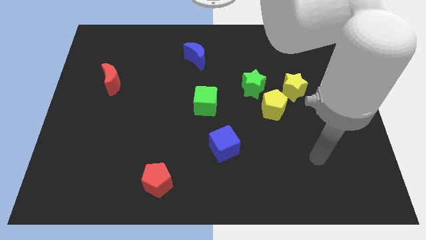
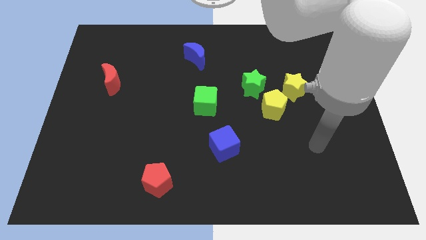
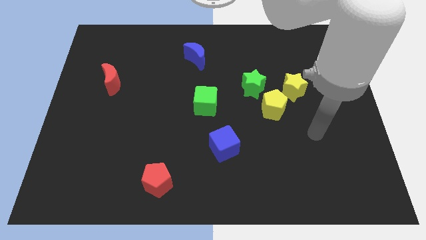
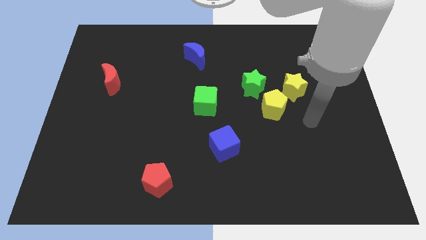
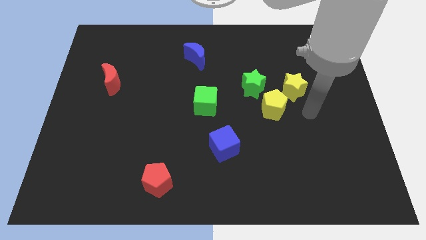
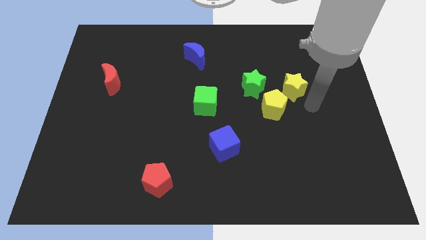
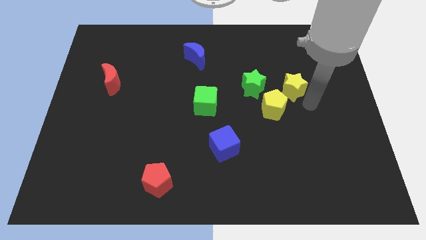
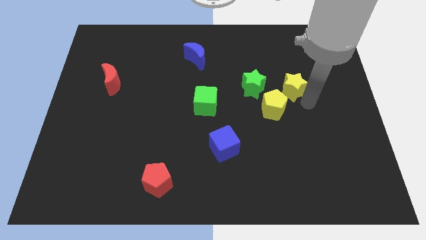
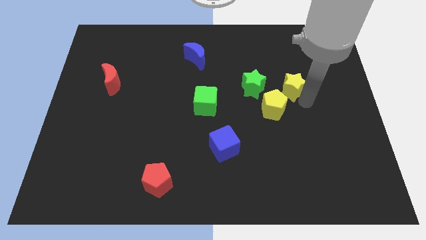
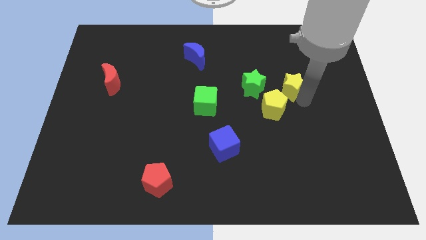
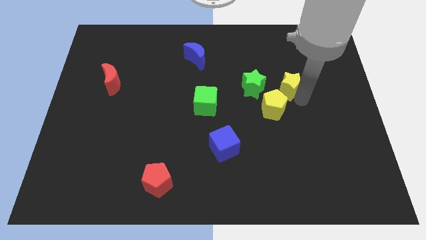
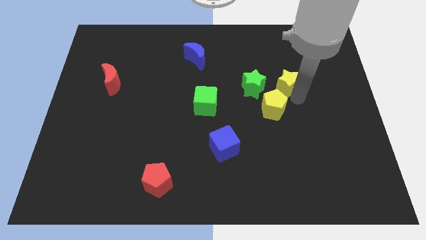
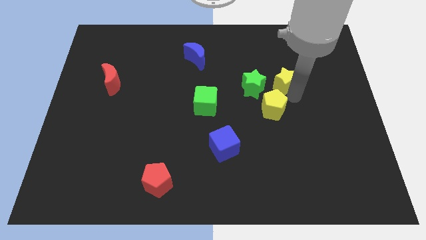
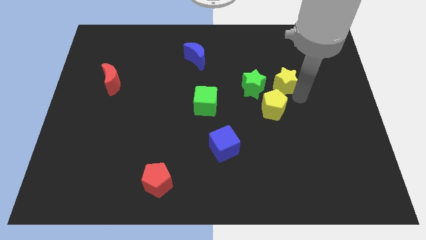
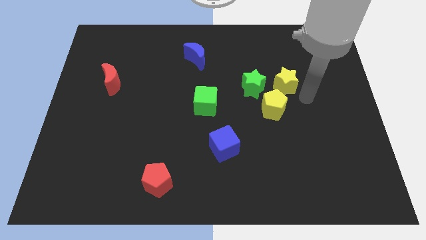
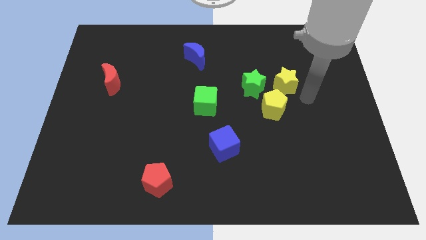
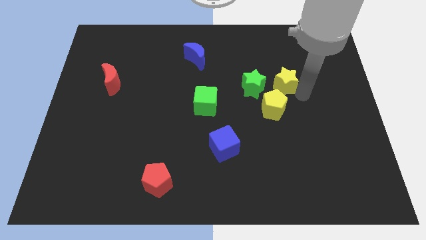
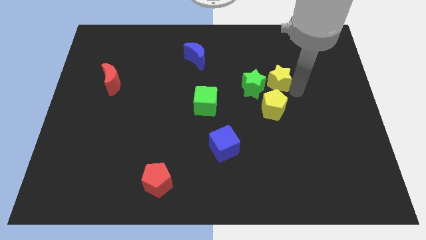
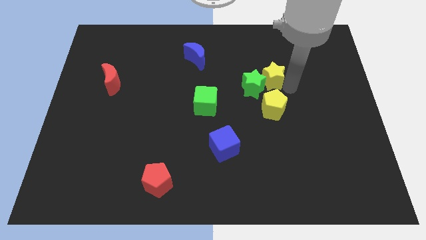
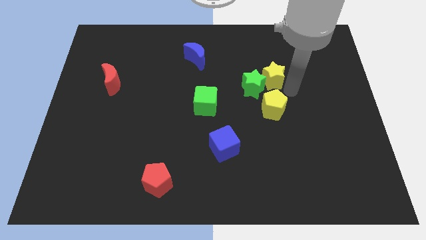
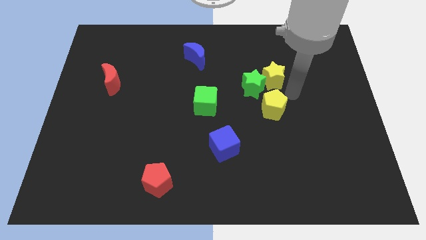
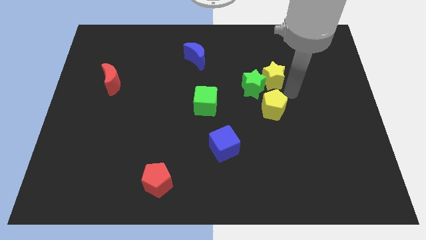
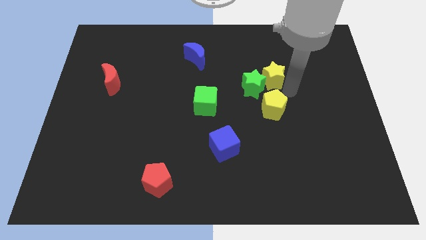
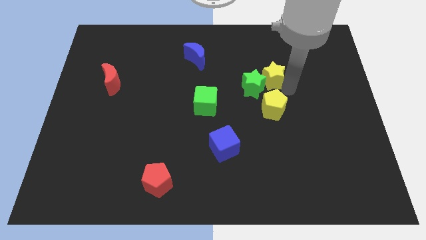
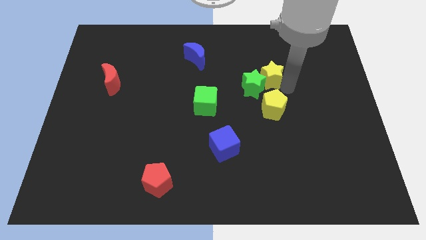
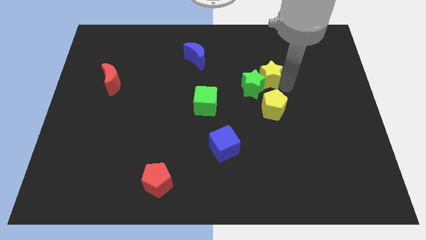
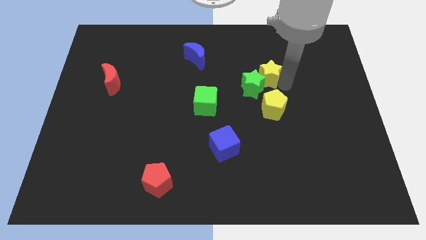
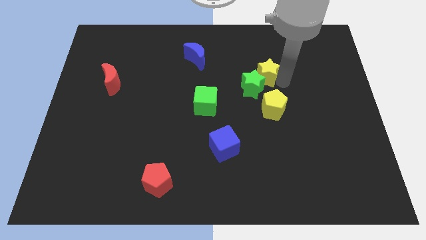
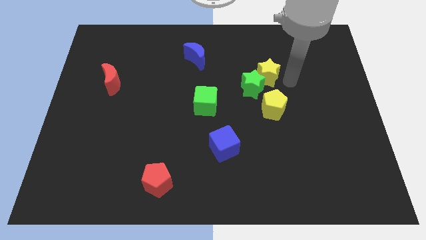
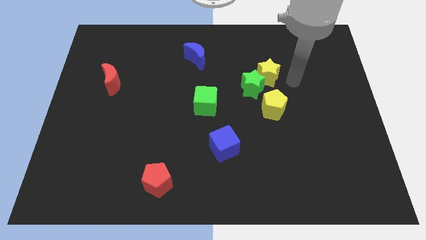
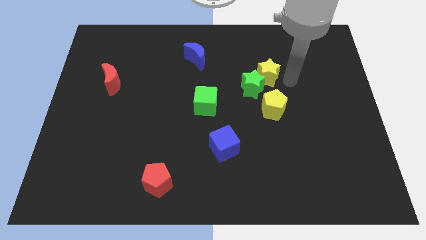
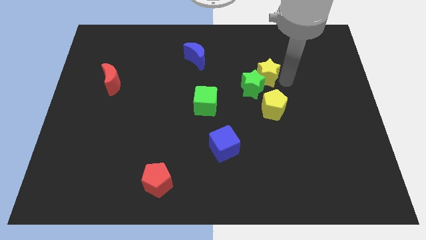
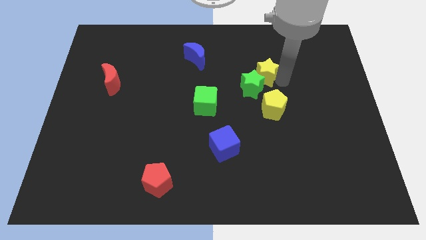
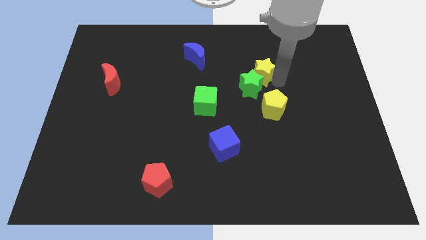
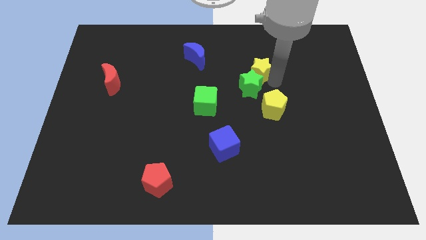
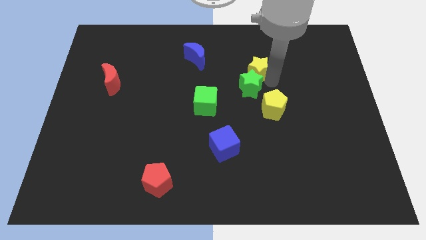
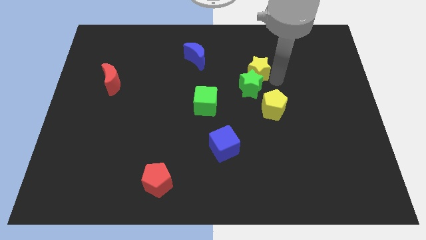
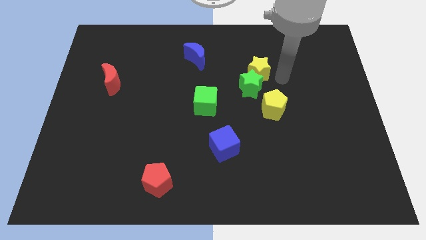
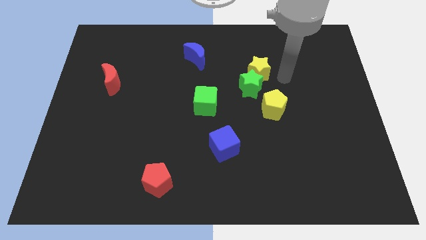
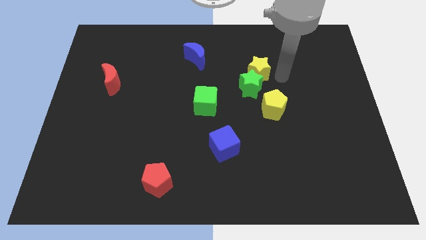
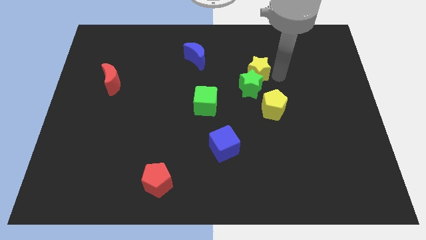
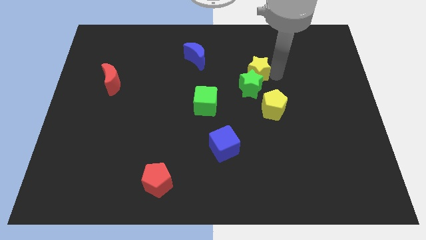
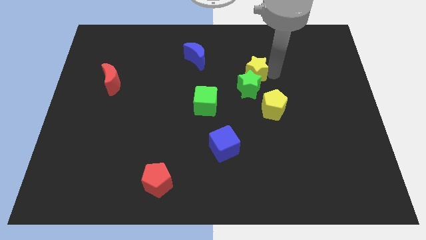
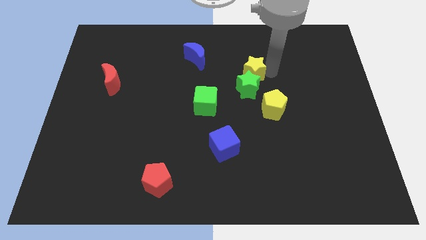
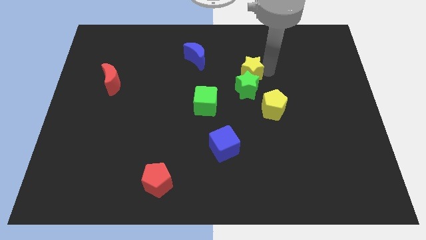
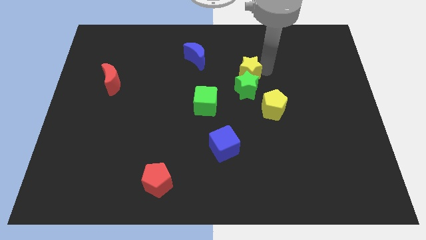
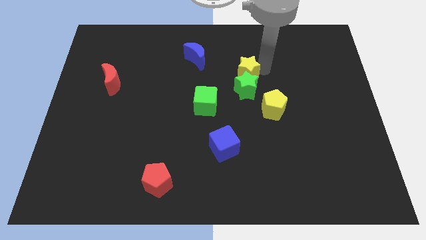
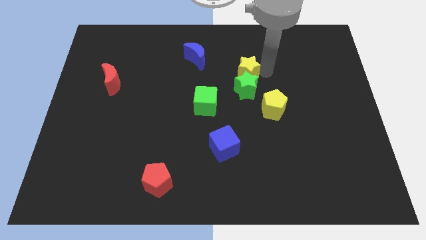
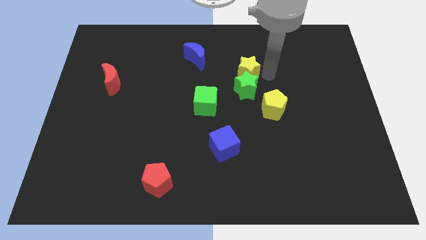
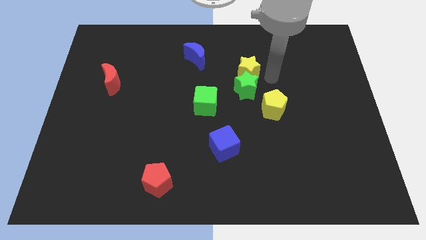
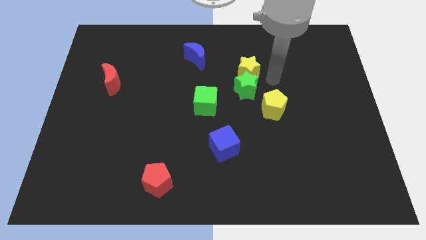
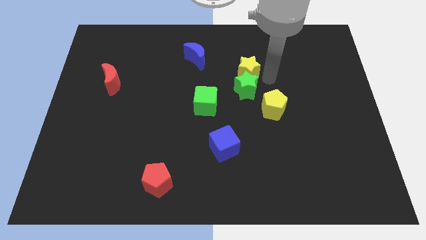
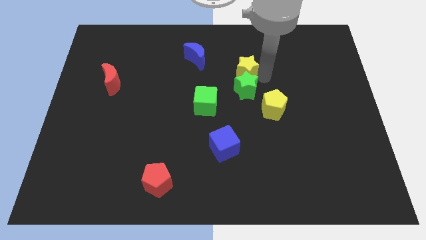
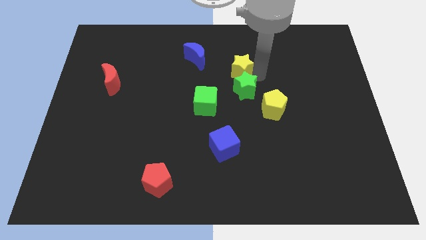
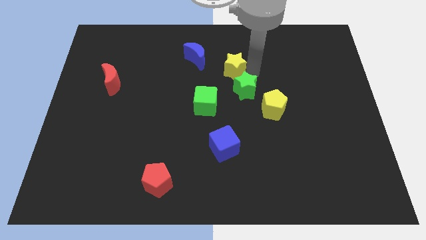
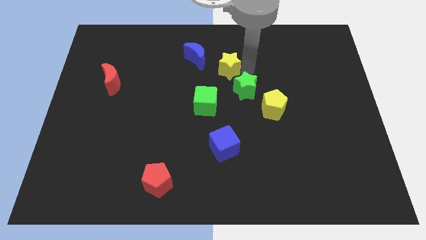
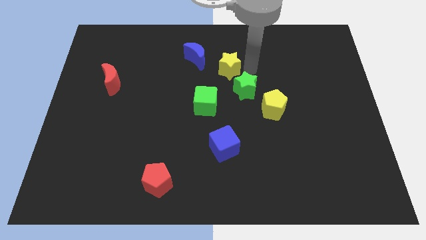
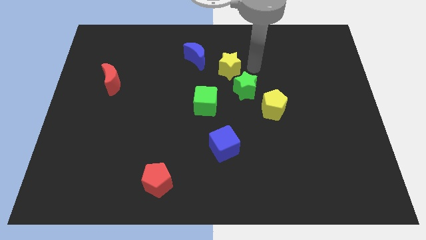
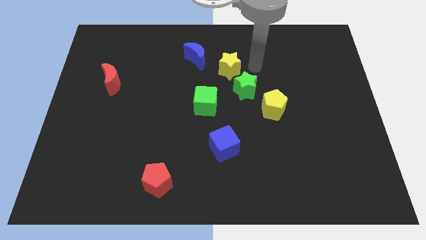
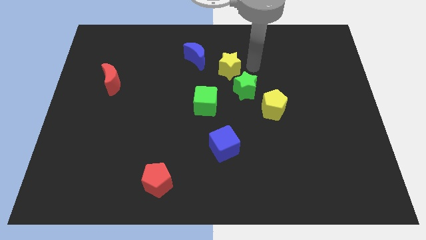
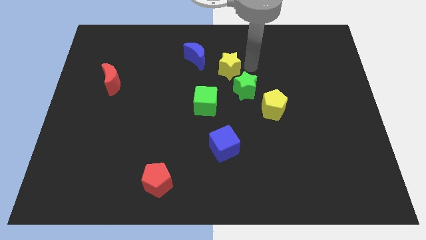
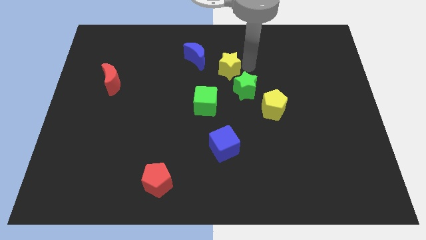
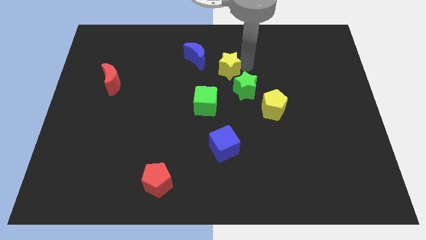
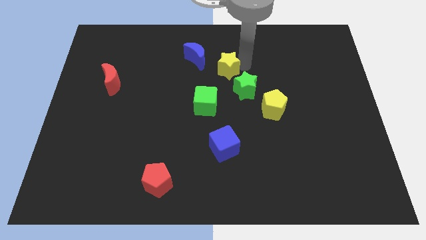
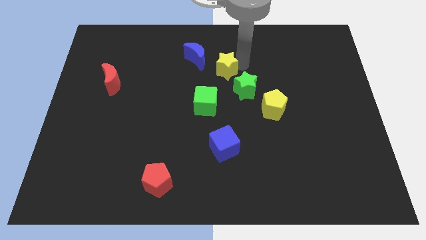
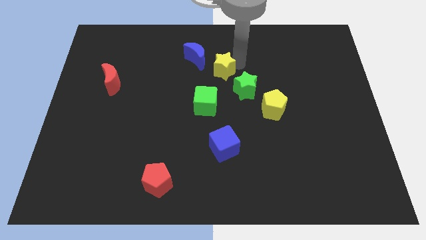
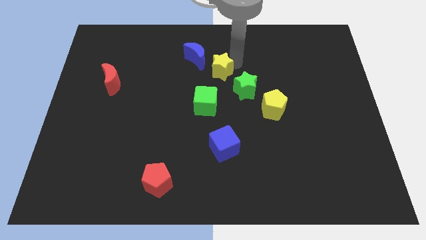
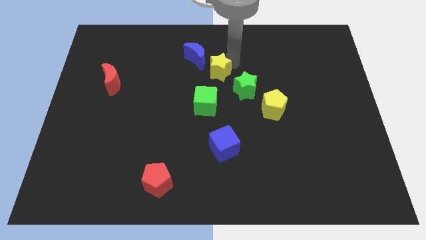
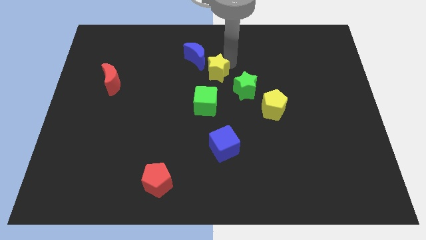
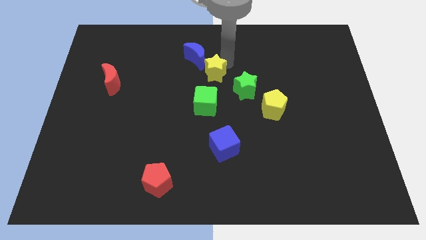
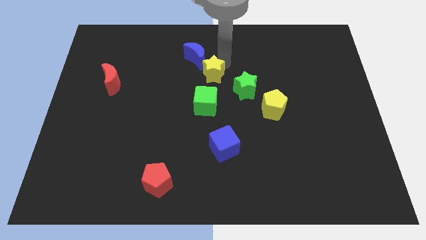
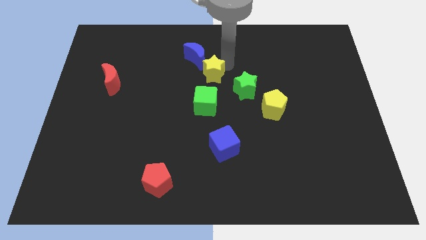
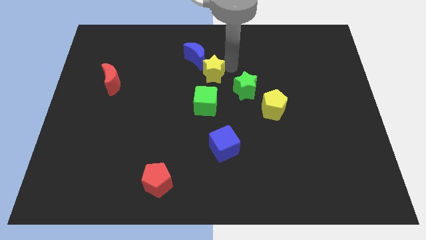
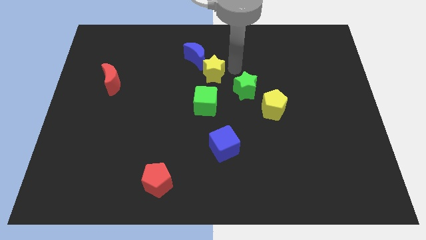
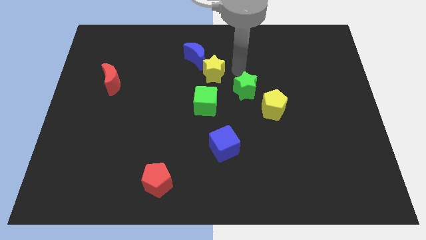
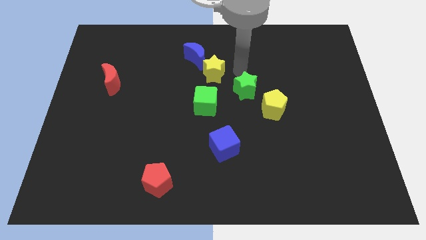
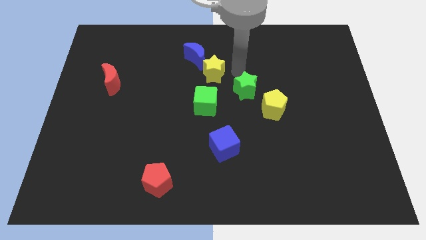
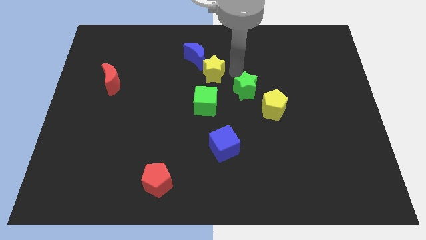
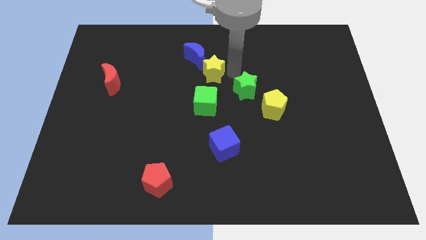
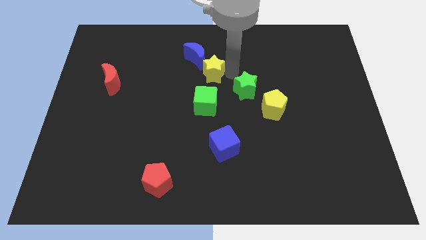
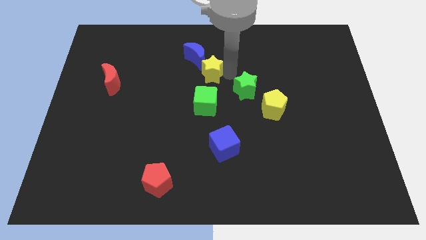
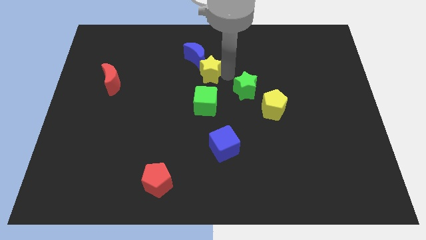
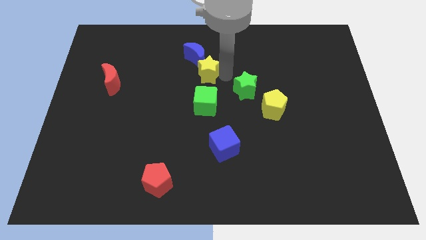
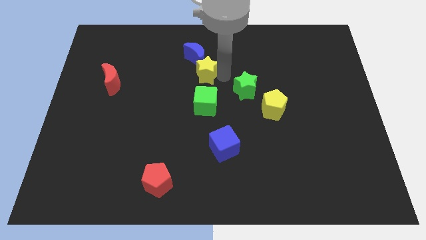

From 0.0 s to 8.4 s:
move the yellow star left
